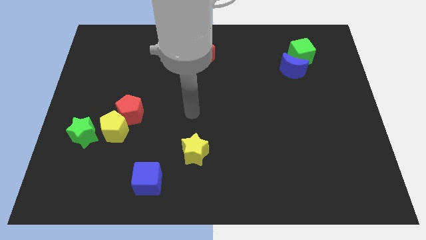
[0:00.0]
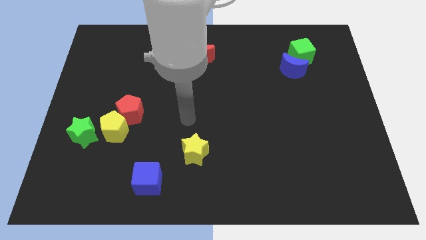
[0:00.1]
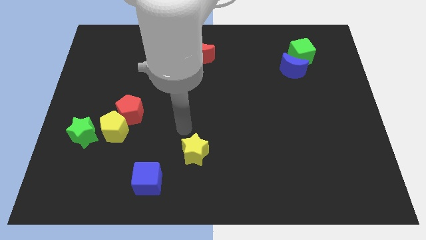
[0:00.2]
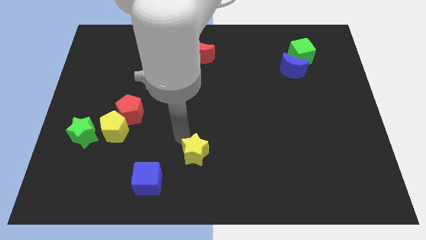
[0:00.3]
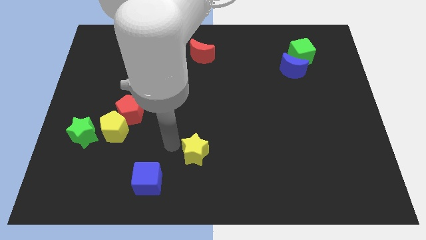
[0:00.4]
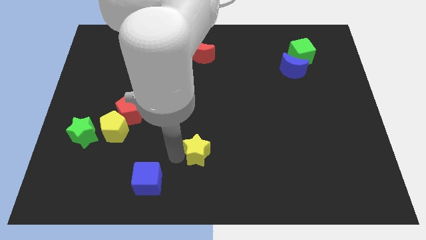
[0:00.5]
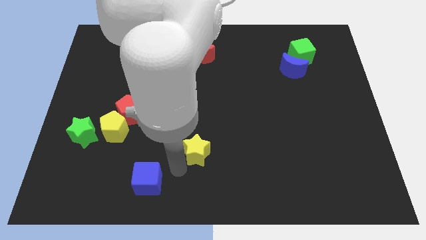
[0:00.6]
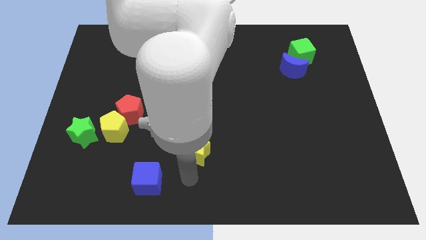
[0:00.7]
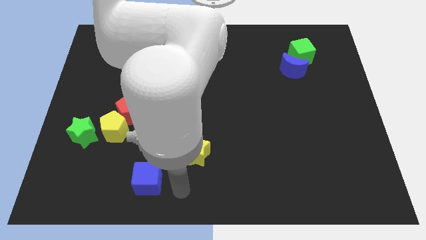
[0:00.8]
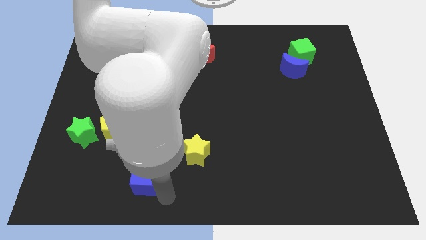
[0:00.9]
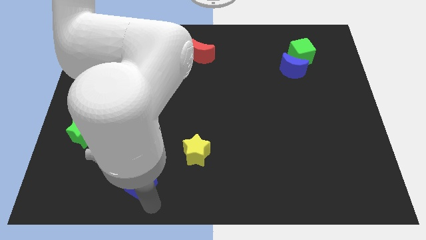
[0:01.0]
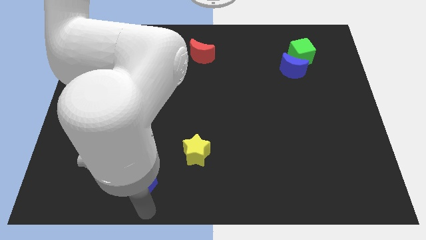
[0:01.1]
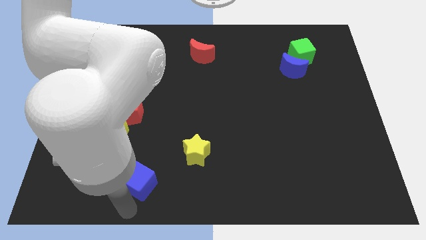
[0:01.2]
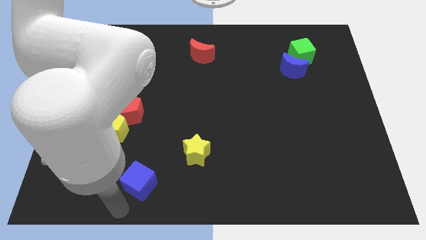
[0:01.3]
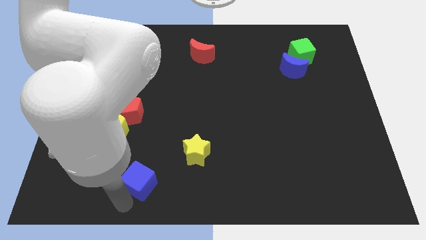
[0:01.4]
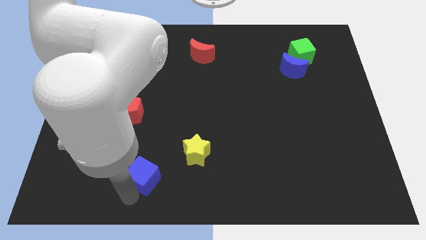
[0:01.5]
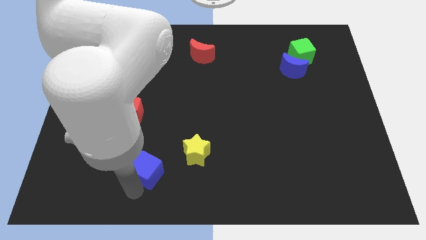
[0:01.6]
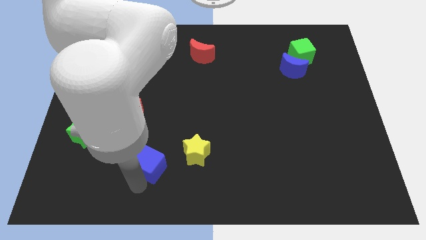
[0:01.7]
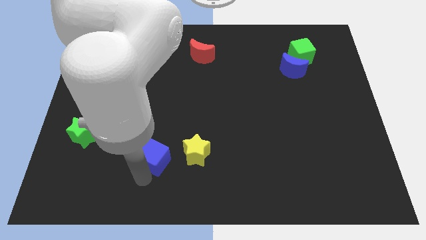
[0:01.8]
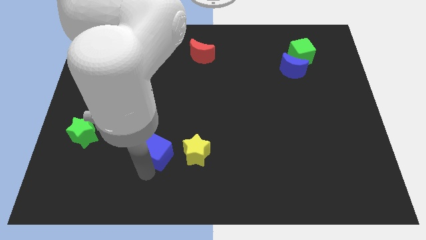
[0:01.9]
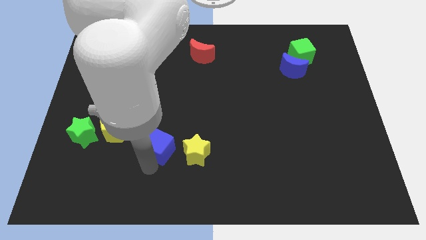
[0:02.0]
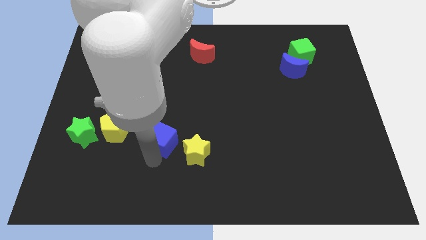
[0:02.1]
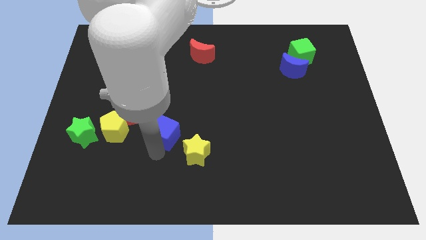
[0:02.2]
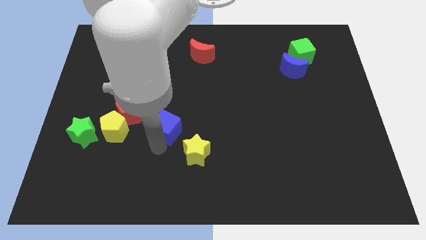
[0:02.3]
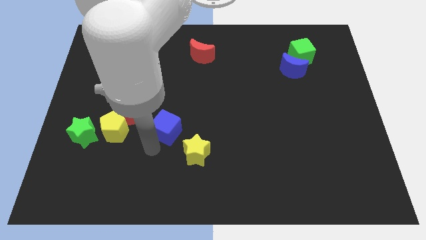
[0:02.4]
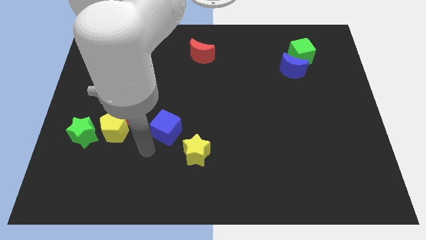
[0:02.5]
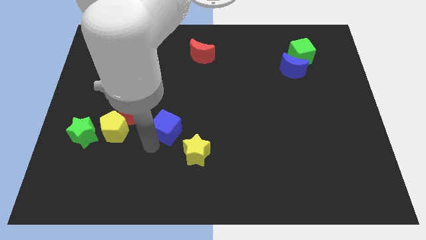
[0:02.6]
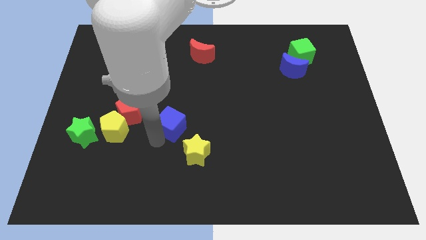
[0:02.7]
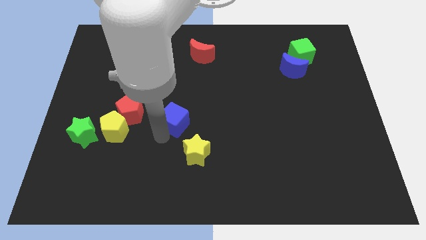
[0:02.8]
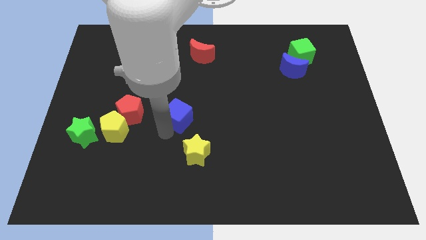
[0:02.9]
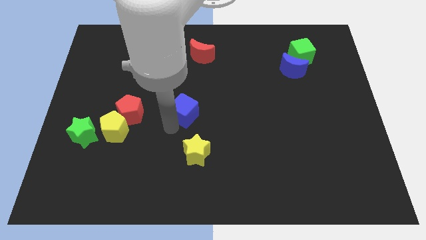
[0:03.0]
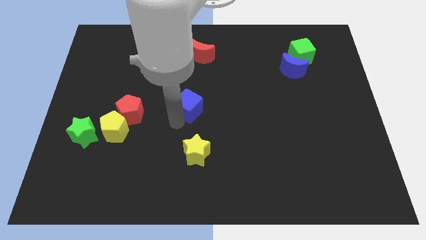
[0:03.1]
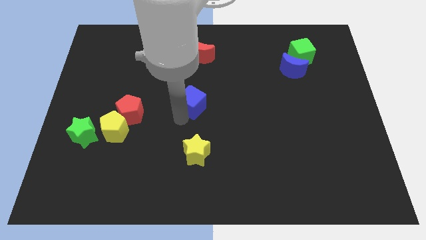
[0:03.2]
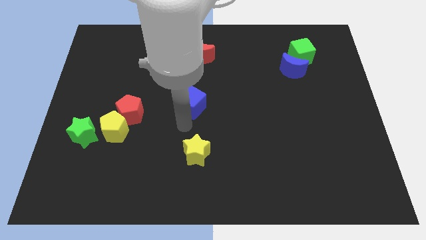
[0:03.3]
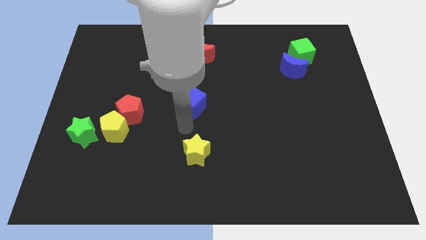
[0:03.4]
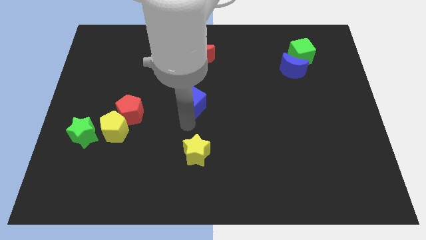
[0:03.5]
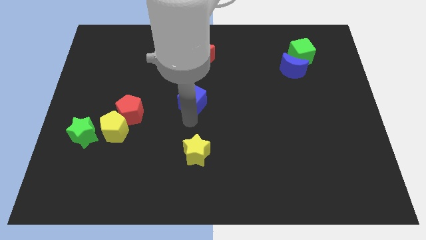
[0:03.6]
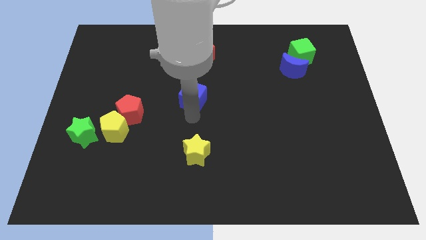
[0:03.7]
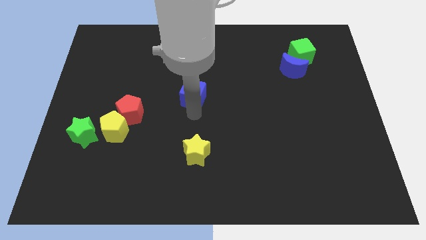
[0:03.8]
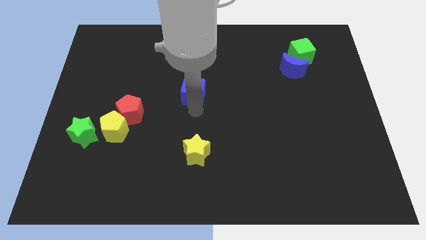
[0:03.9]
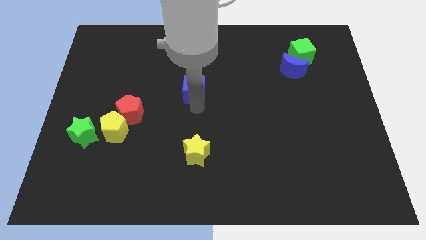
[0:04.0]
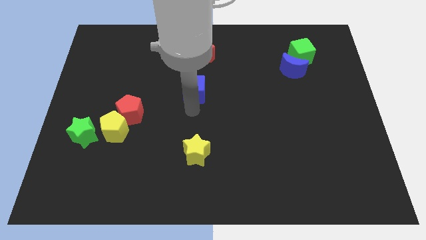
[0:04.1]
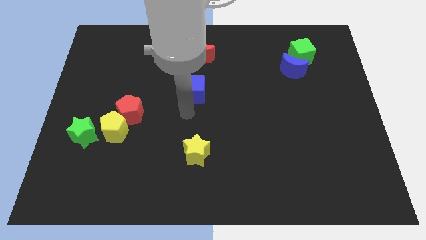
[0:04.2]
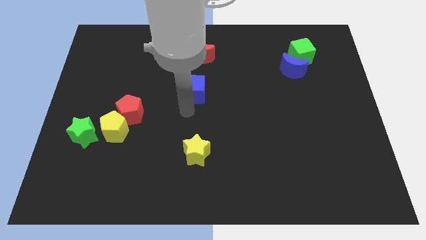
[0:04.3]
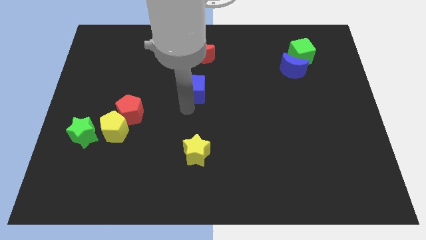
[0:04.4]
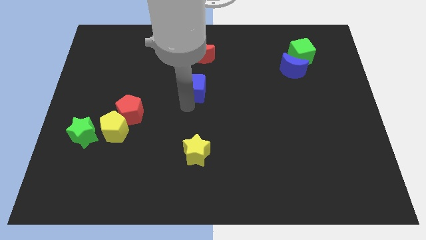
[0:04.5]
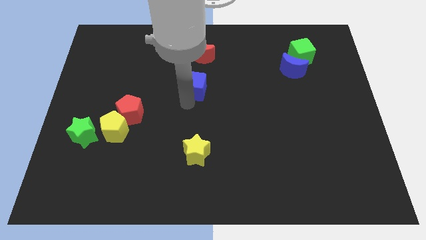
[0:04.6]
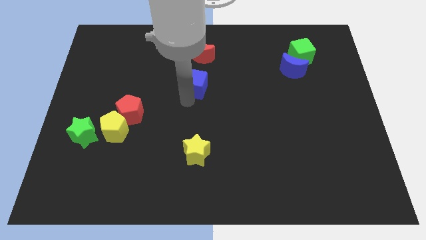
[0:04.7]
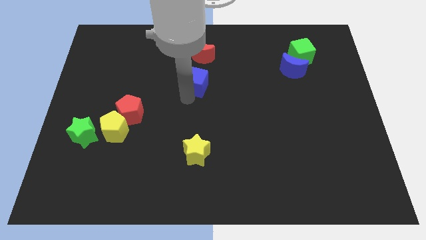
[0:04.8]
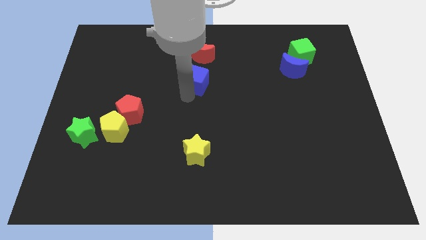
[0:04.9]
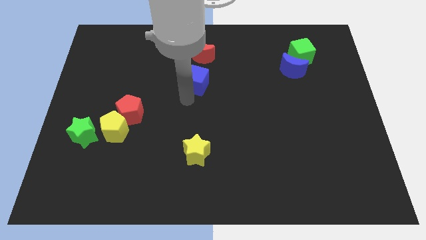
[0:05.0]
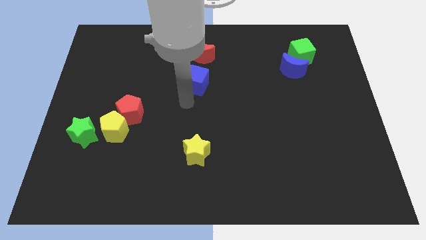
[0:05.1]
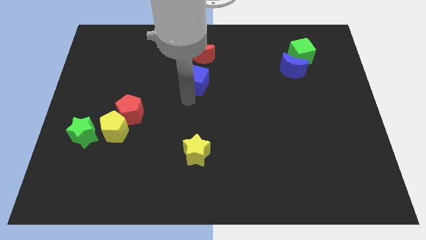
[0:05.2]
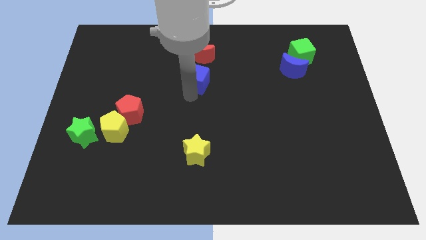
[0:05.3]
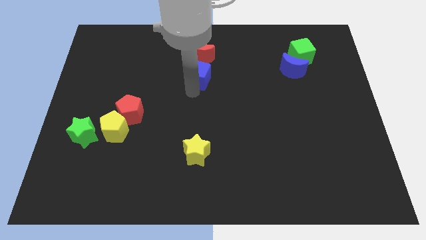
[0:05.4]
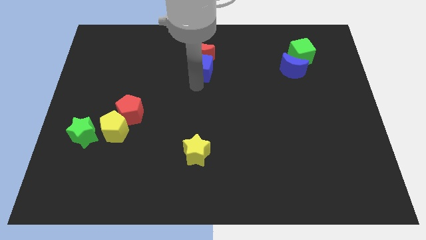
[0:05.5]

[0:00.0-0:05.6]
slide the blue cube to the red moon

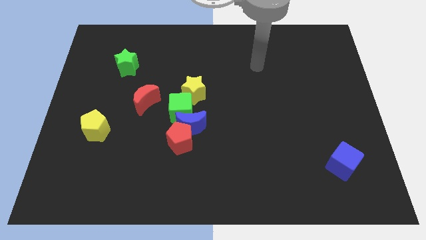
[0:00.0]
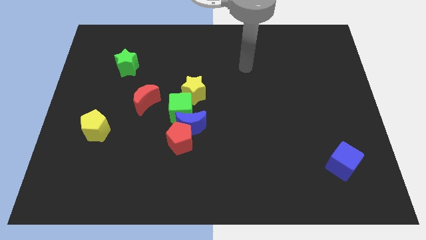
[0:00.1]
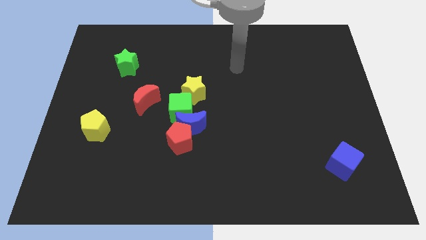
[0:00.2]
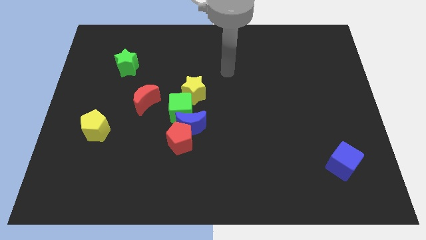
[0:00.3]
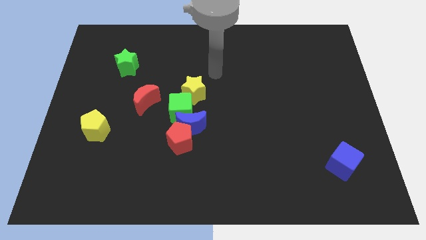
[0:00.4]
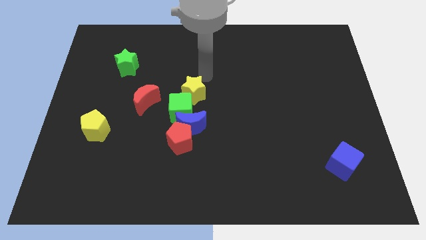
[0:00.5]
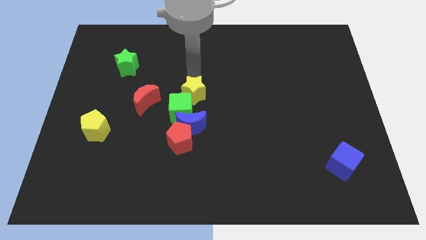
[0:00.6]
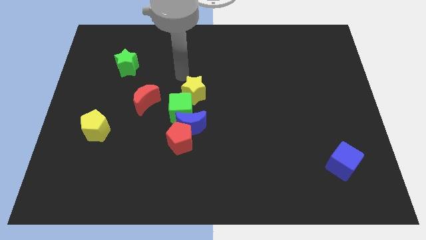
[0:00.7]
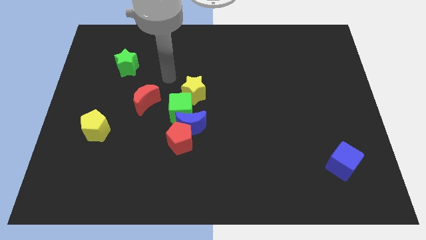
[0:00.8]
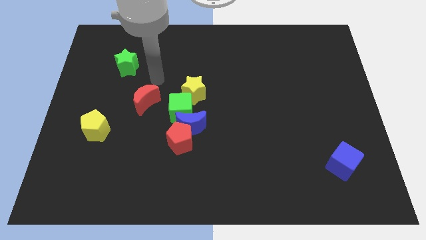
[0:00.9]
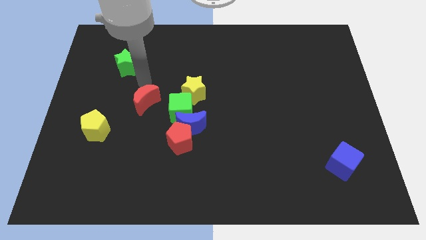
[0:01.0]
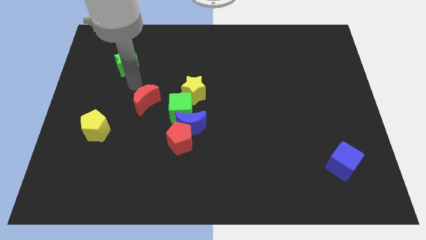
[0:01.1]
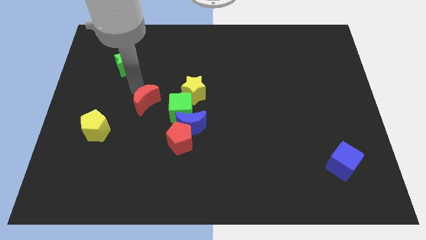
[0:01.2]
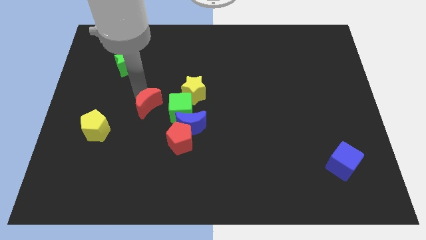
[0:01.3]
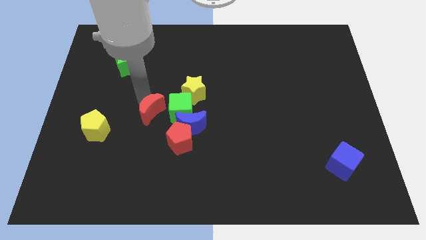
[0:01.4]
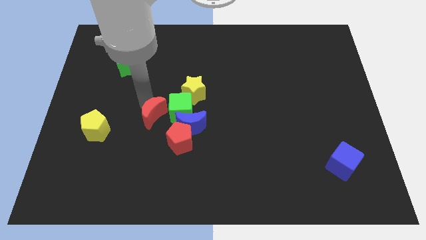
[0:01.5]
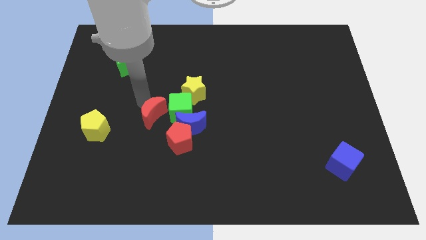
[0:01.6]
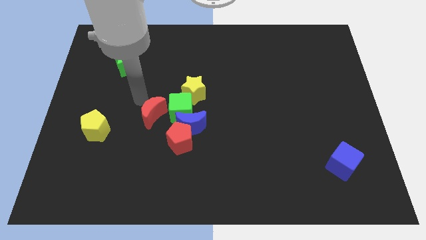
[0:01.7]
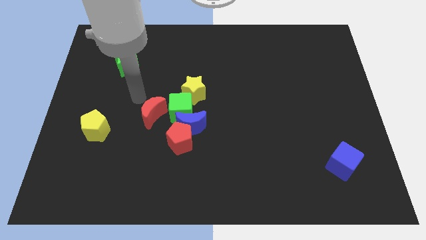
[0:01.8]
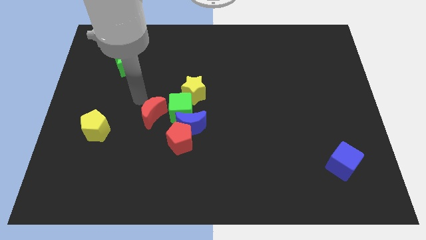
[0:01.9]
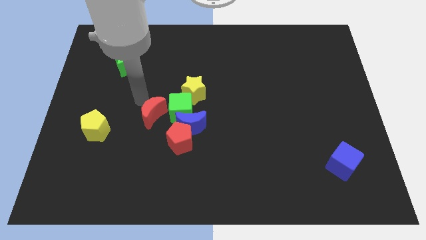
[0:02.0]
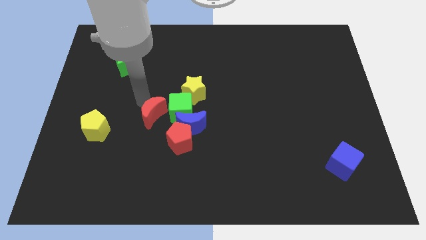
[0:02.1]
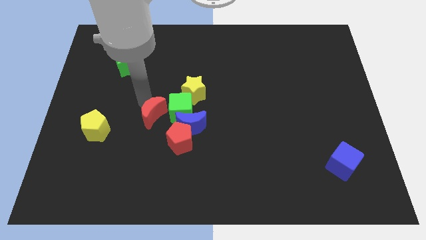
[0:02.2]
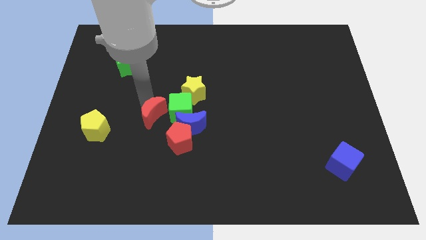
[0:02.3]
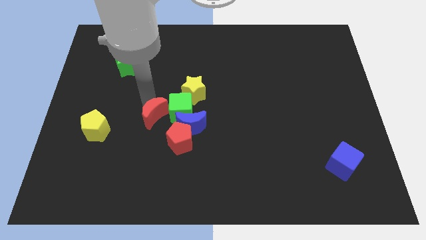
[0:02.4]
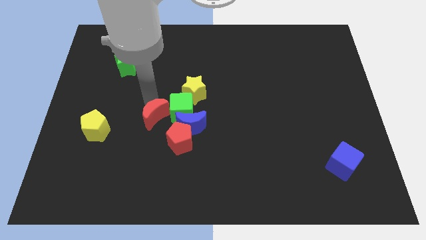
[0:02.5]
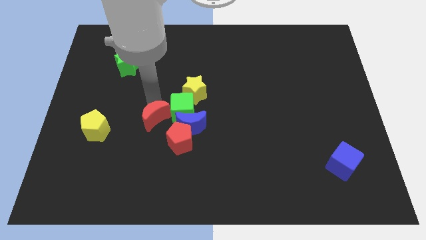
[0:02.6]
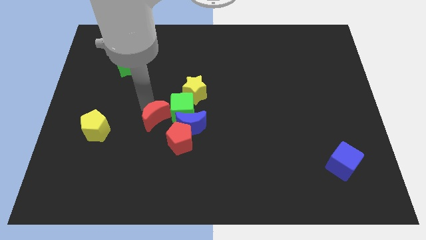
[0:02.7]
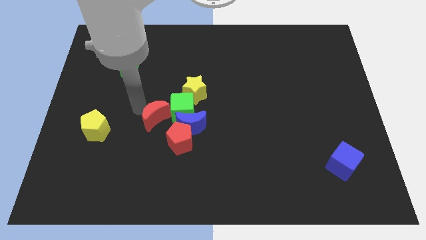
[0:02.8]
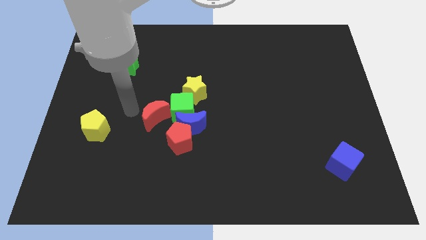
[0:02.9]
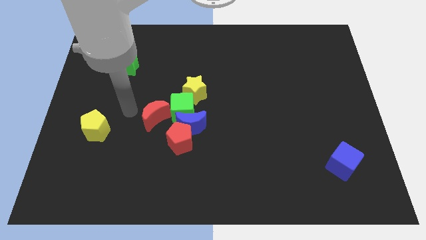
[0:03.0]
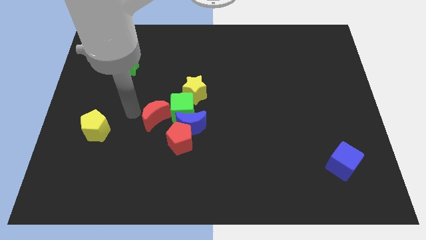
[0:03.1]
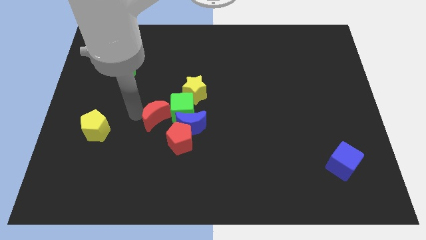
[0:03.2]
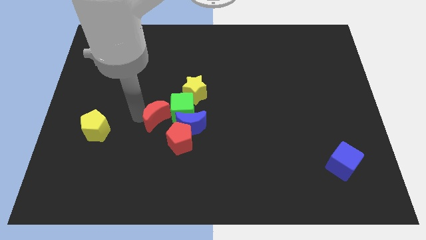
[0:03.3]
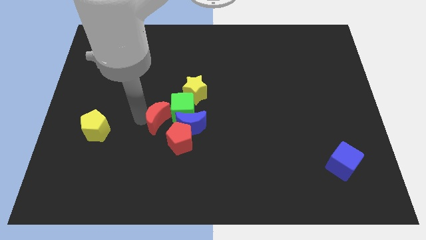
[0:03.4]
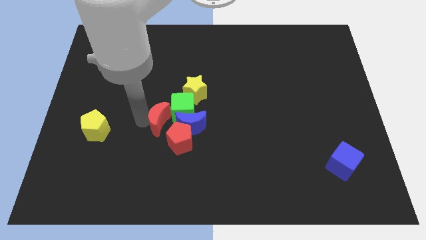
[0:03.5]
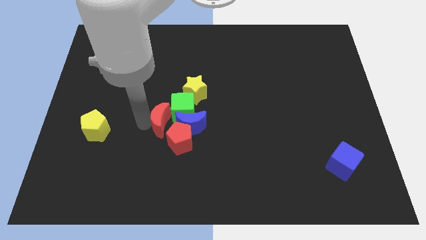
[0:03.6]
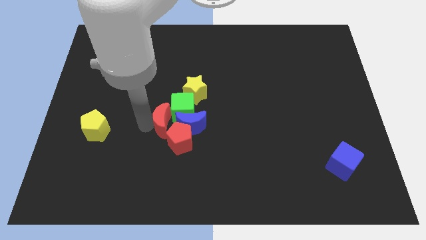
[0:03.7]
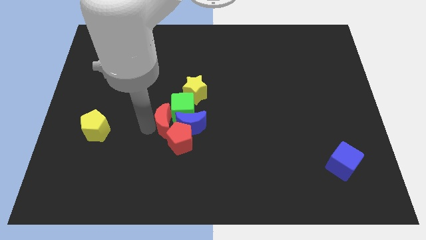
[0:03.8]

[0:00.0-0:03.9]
move the red moon close to the blue moon
